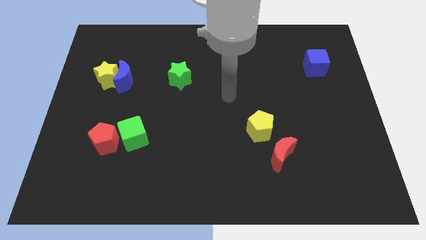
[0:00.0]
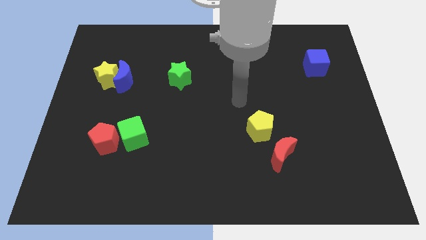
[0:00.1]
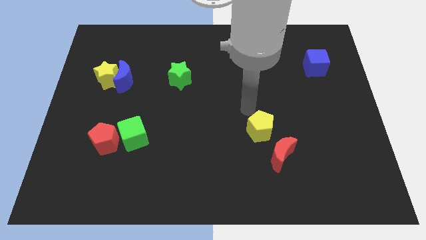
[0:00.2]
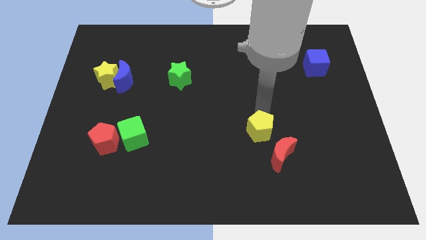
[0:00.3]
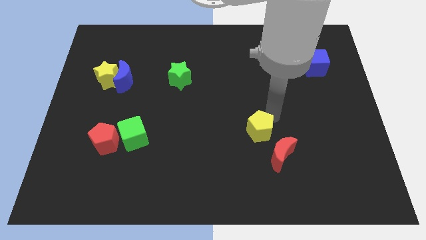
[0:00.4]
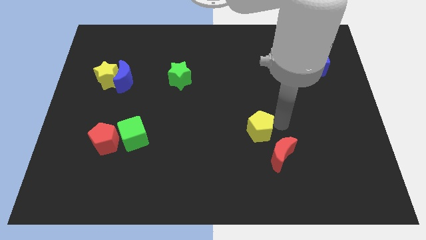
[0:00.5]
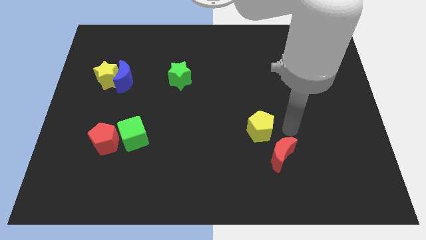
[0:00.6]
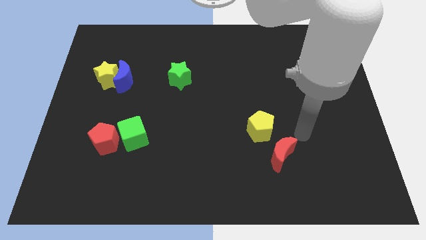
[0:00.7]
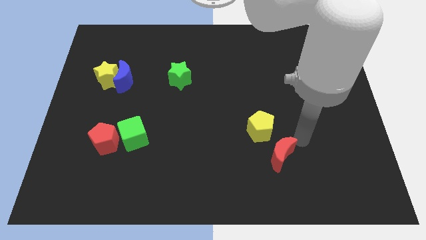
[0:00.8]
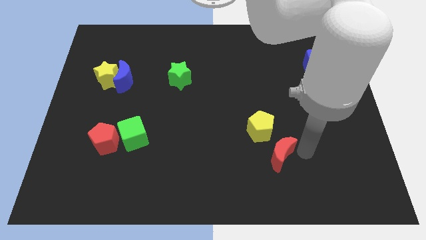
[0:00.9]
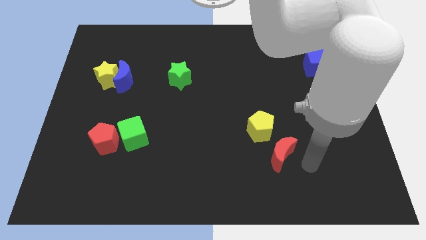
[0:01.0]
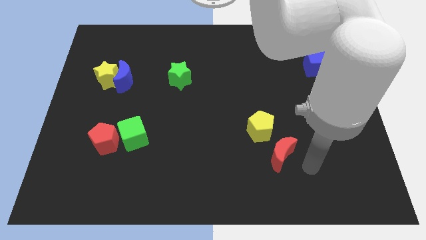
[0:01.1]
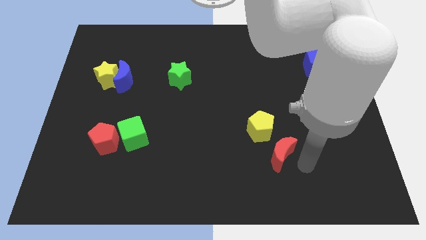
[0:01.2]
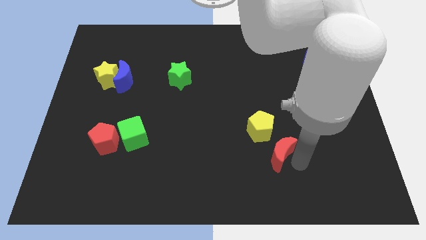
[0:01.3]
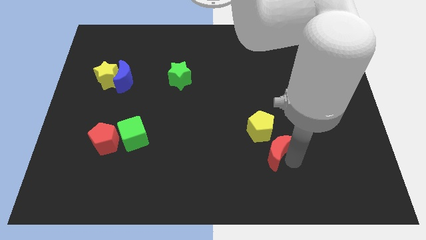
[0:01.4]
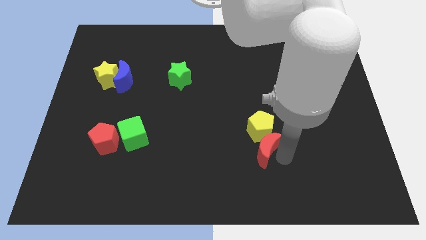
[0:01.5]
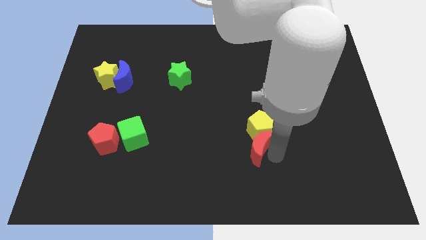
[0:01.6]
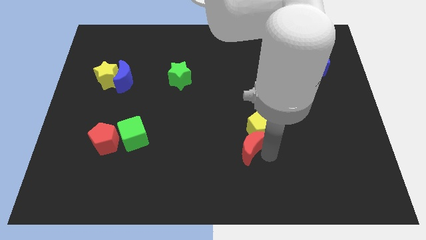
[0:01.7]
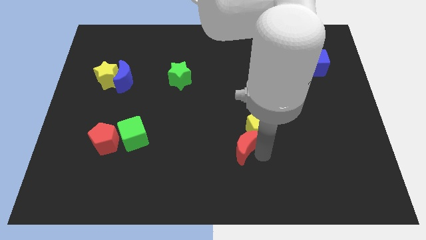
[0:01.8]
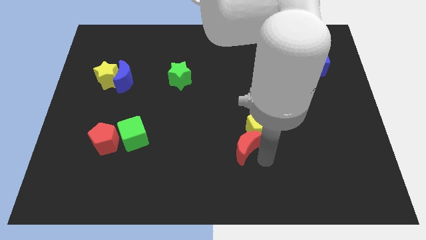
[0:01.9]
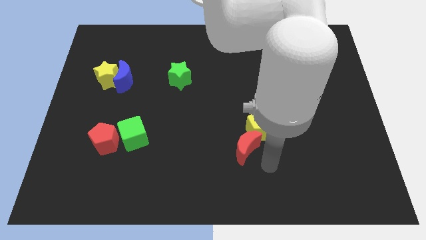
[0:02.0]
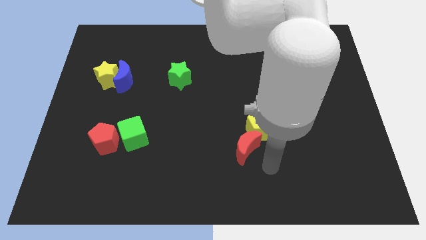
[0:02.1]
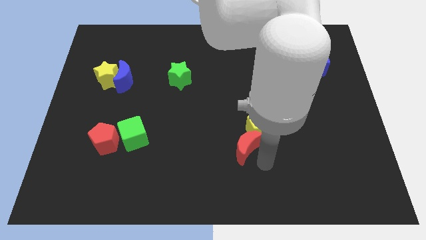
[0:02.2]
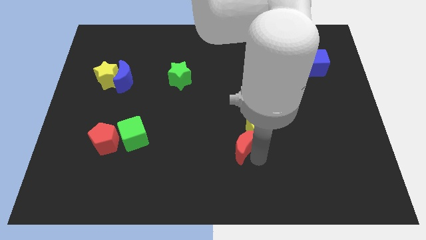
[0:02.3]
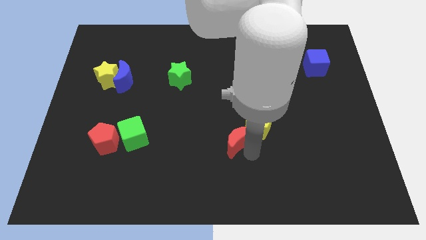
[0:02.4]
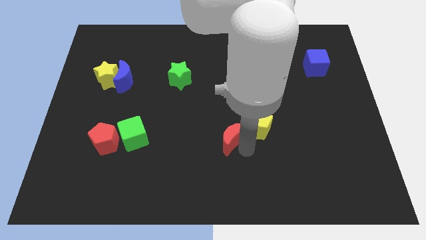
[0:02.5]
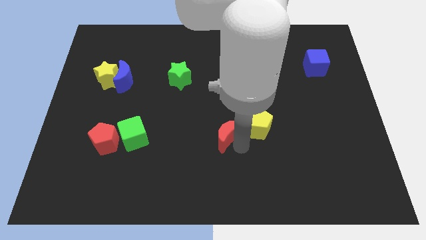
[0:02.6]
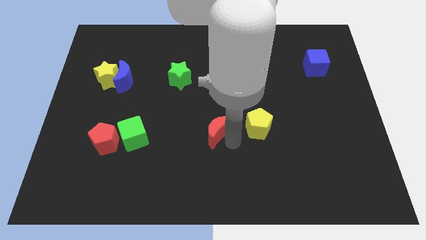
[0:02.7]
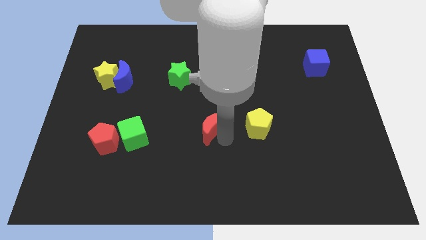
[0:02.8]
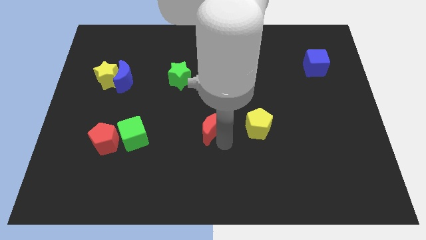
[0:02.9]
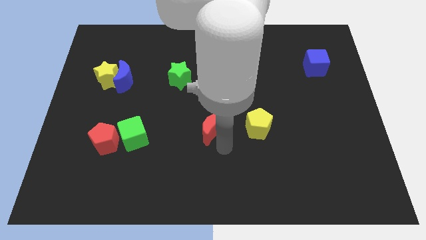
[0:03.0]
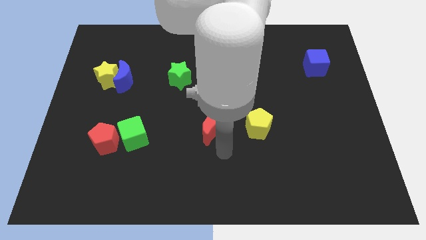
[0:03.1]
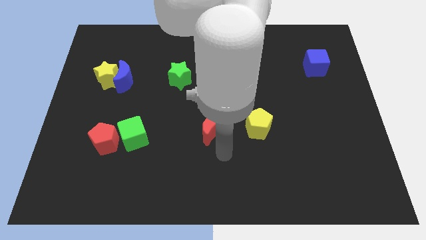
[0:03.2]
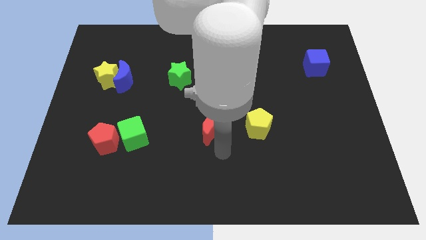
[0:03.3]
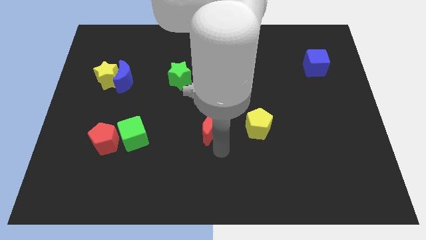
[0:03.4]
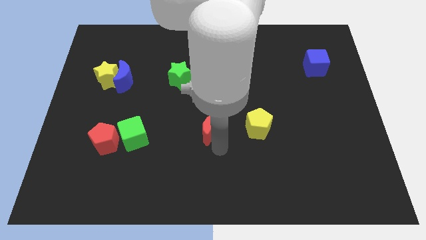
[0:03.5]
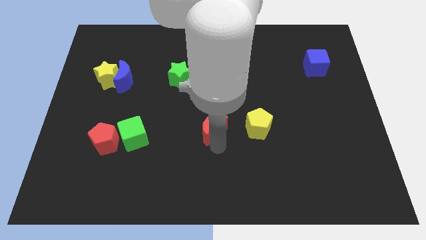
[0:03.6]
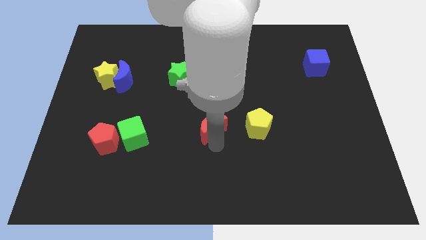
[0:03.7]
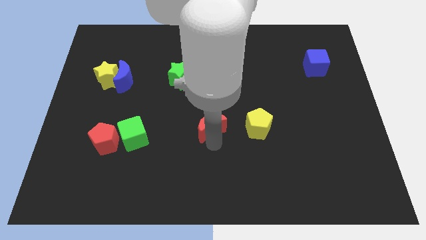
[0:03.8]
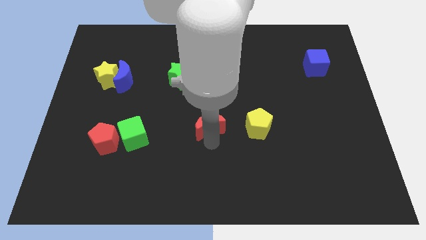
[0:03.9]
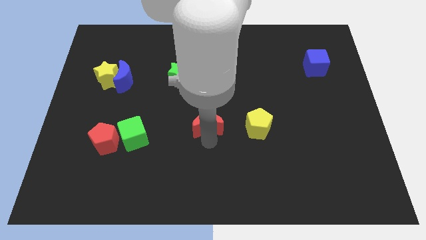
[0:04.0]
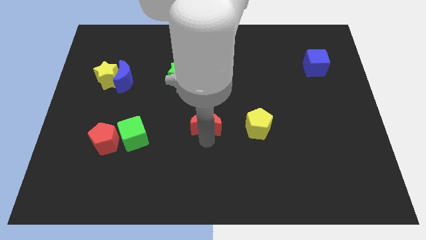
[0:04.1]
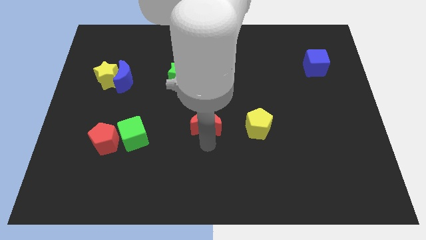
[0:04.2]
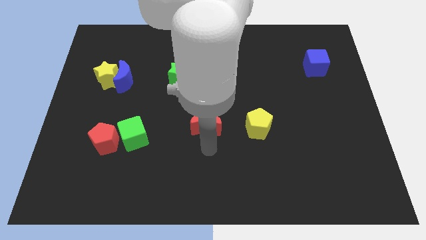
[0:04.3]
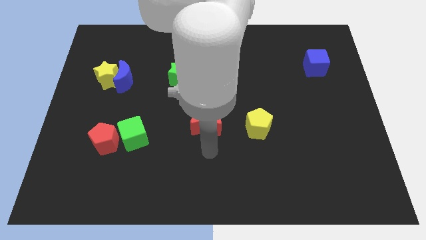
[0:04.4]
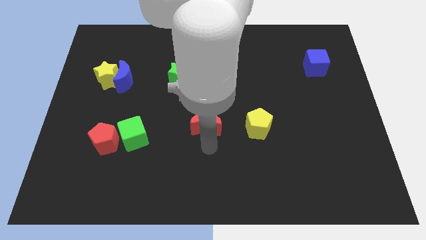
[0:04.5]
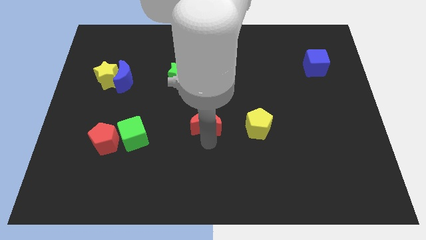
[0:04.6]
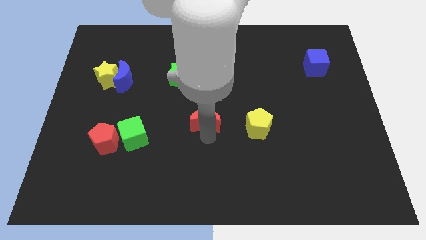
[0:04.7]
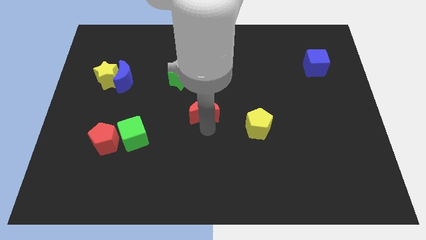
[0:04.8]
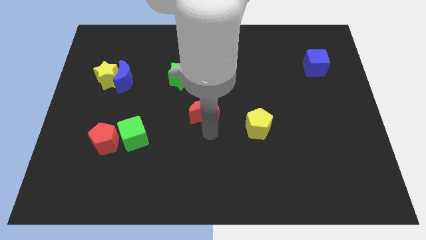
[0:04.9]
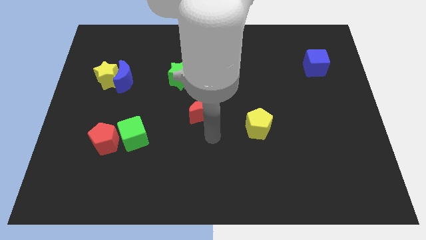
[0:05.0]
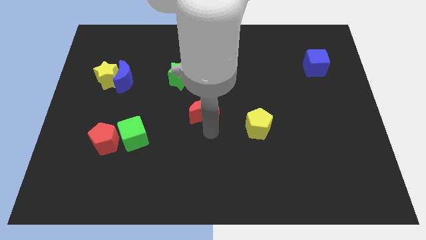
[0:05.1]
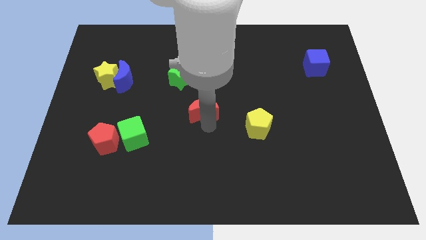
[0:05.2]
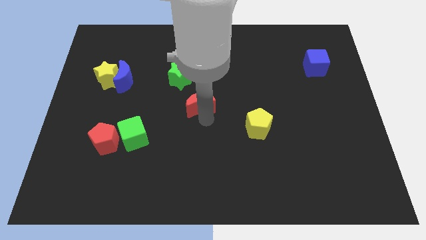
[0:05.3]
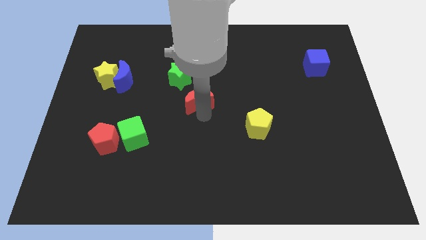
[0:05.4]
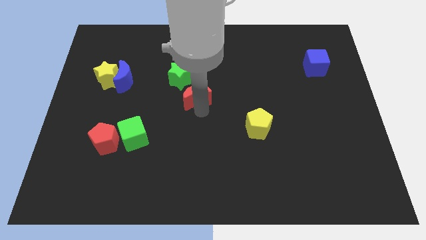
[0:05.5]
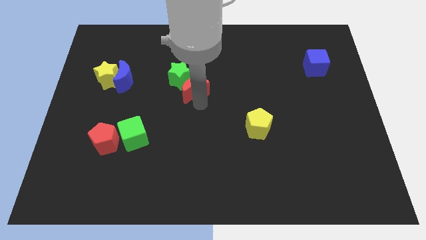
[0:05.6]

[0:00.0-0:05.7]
put the red moon to the green star

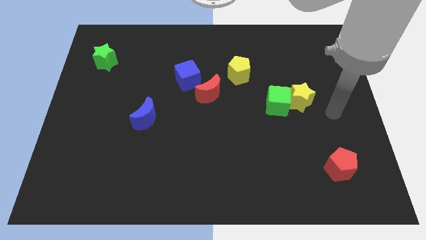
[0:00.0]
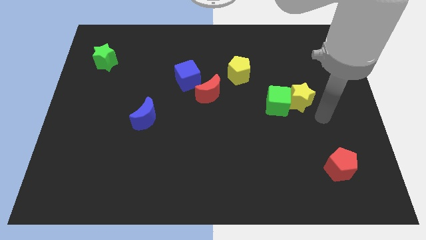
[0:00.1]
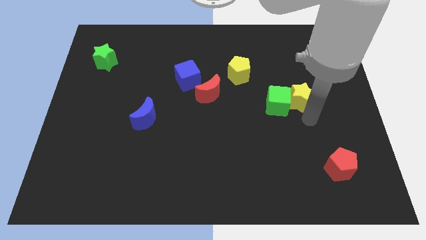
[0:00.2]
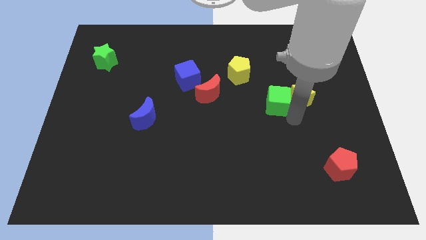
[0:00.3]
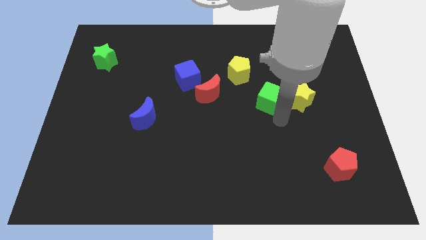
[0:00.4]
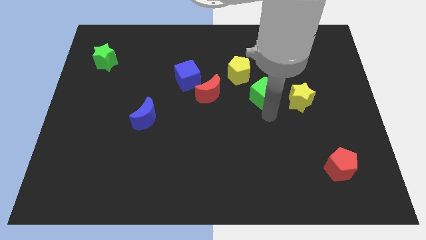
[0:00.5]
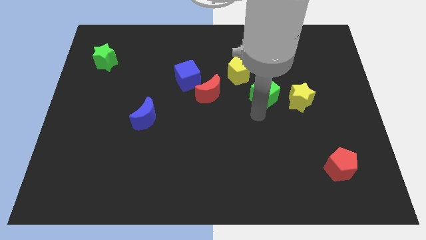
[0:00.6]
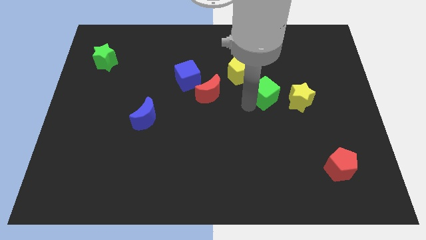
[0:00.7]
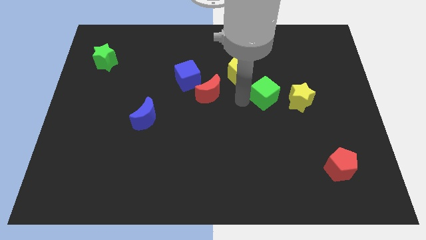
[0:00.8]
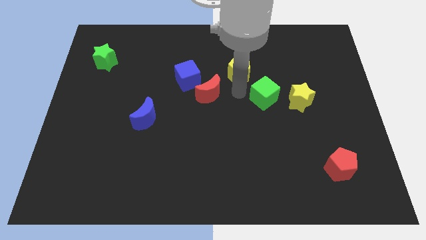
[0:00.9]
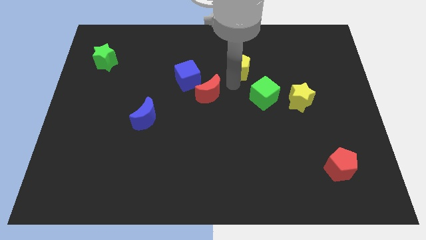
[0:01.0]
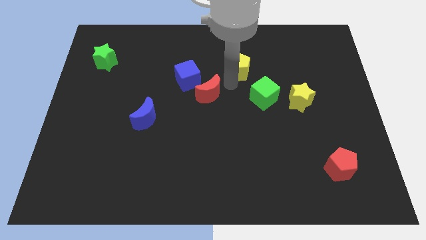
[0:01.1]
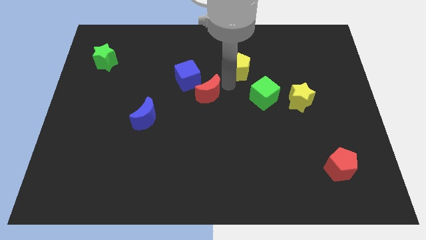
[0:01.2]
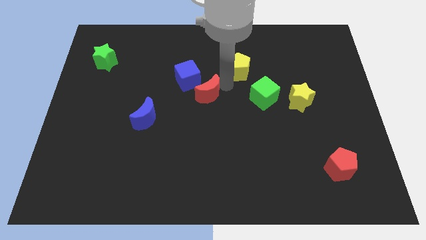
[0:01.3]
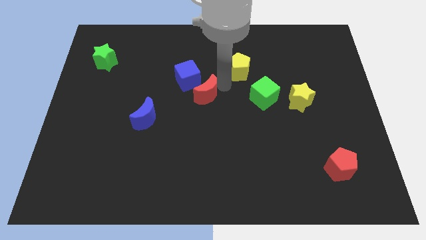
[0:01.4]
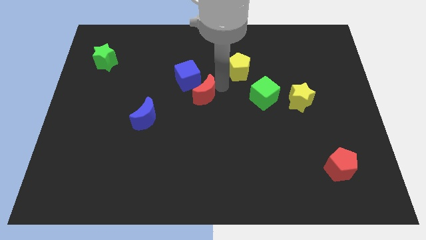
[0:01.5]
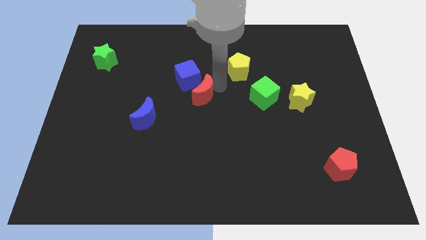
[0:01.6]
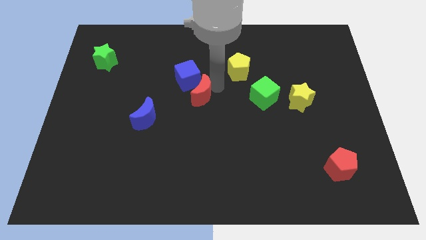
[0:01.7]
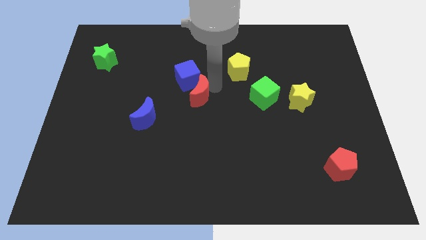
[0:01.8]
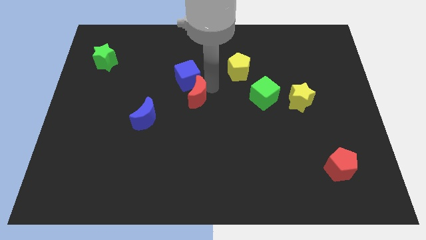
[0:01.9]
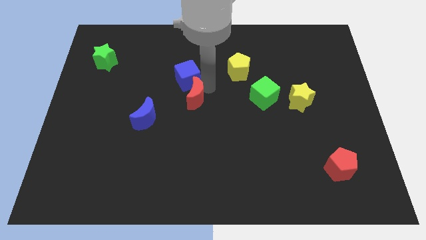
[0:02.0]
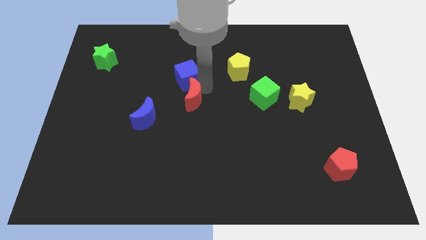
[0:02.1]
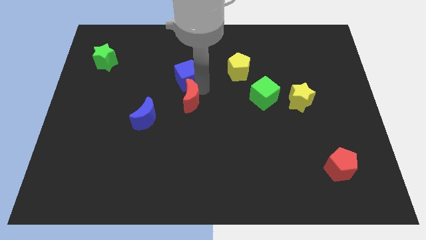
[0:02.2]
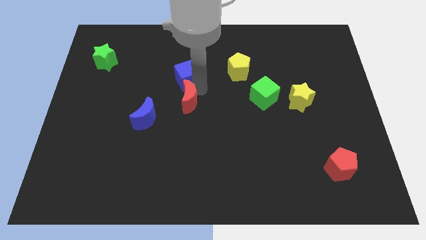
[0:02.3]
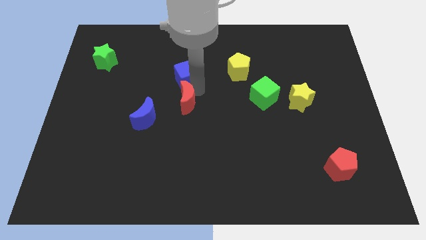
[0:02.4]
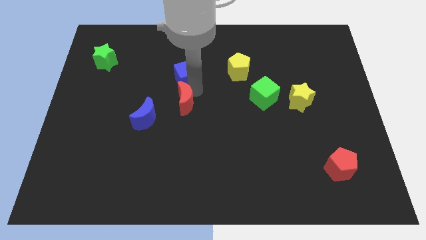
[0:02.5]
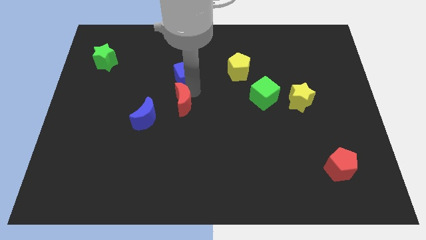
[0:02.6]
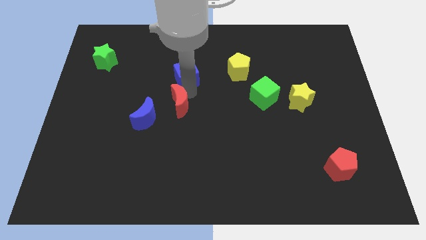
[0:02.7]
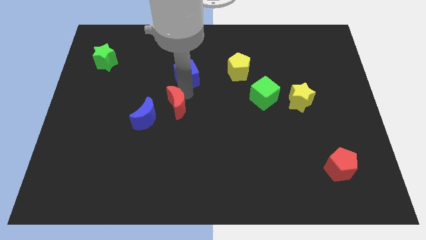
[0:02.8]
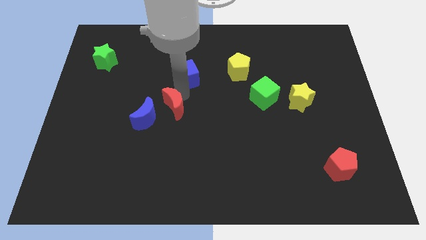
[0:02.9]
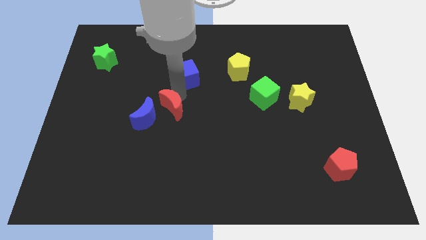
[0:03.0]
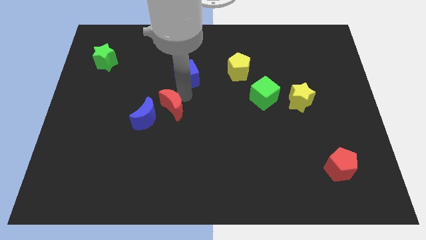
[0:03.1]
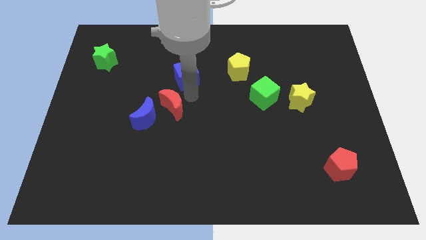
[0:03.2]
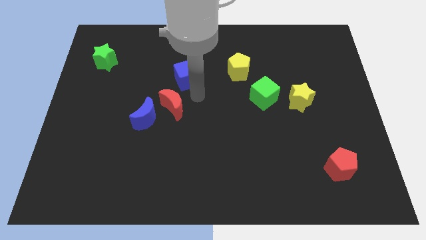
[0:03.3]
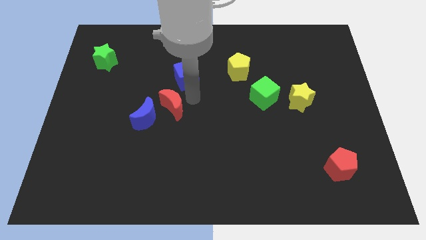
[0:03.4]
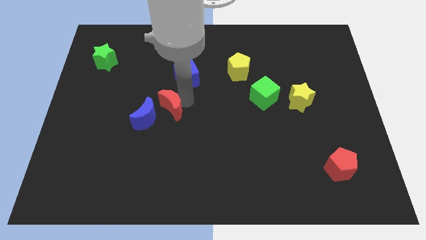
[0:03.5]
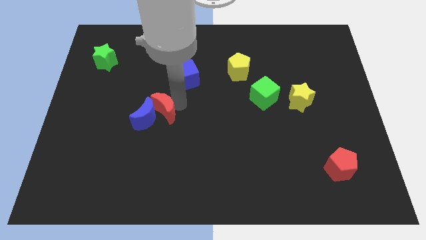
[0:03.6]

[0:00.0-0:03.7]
push the red moon to the blue moon
